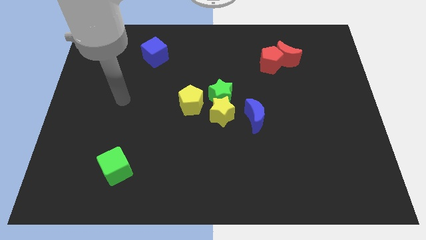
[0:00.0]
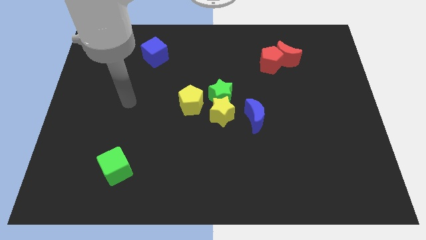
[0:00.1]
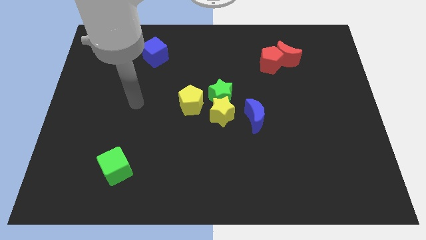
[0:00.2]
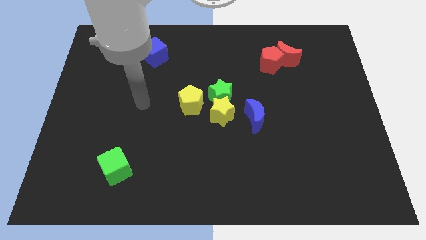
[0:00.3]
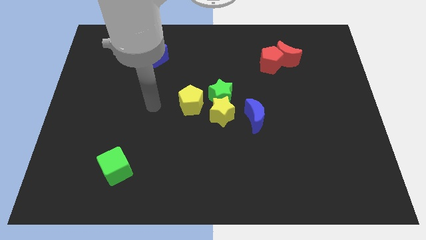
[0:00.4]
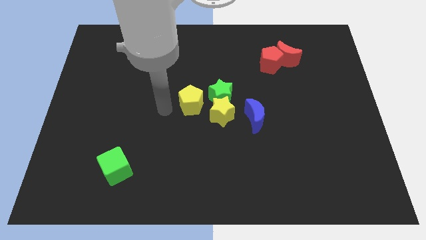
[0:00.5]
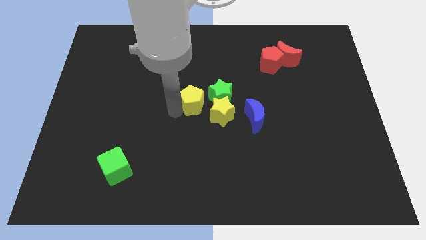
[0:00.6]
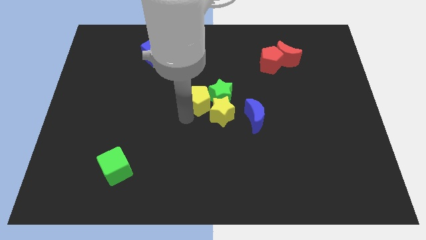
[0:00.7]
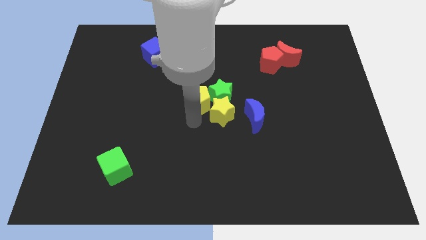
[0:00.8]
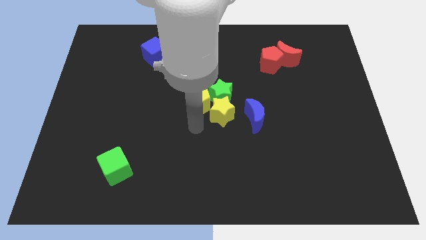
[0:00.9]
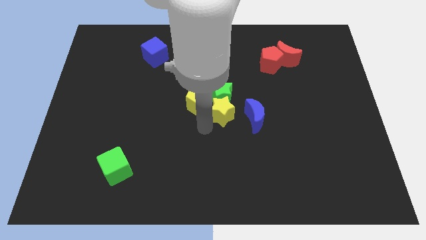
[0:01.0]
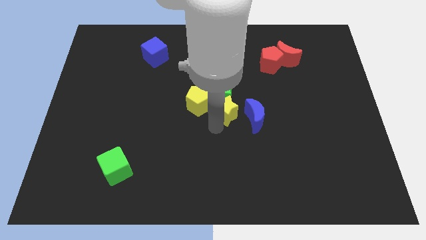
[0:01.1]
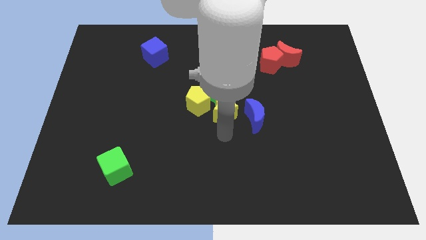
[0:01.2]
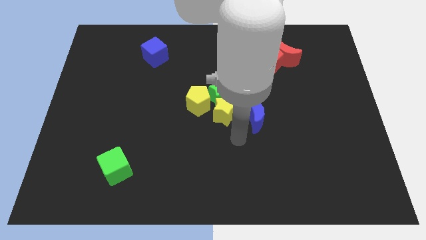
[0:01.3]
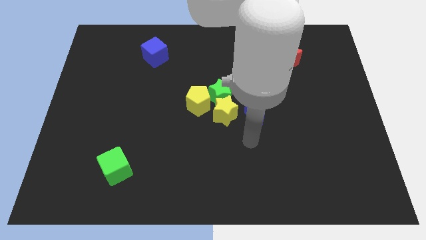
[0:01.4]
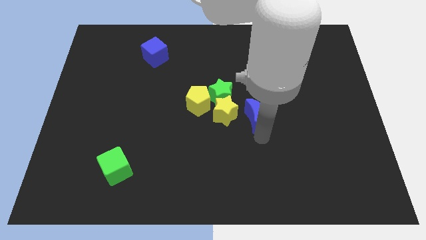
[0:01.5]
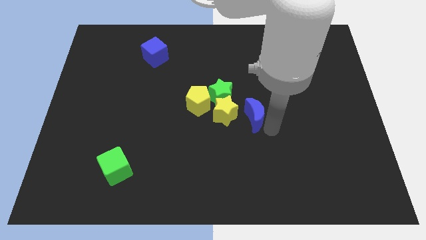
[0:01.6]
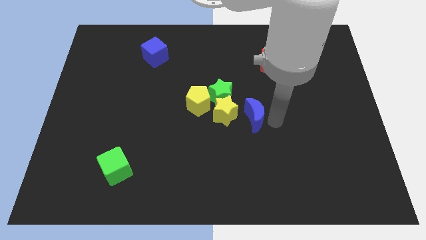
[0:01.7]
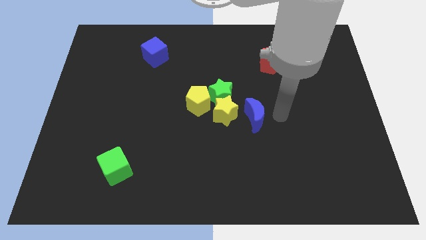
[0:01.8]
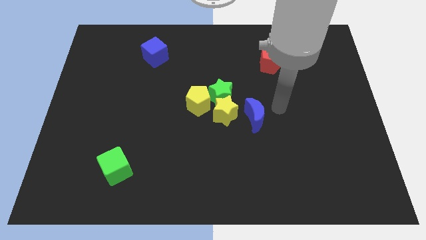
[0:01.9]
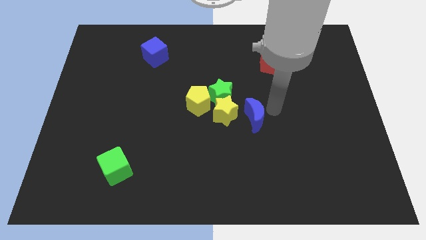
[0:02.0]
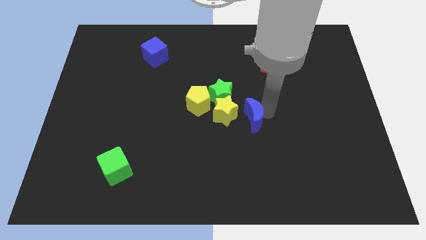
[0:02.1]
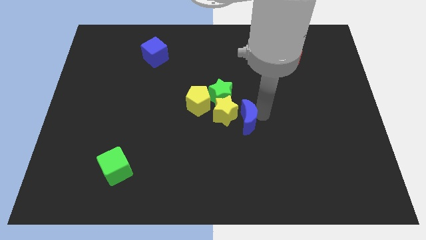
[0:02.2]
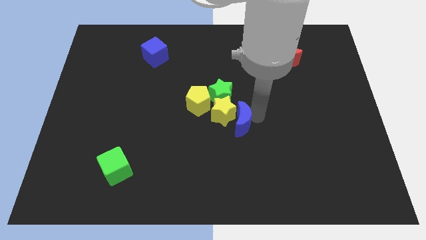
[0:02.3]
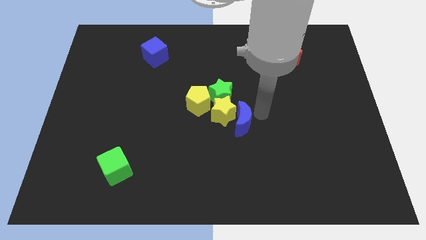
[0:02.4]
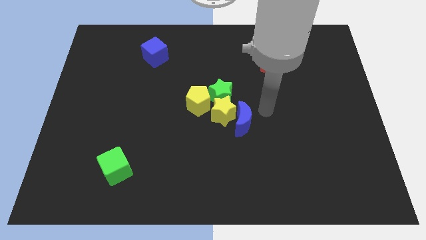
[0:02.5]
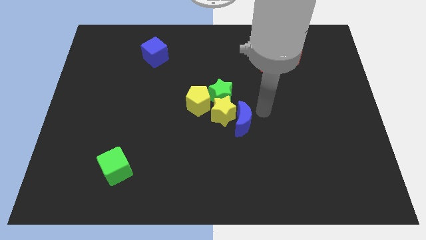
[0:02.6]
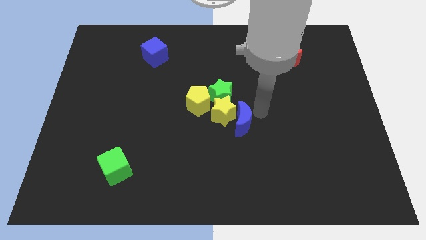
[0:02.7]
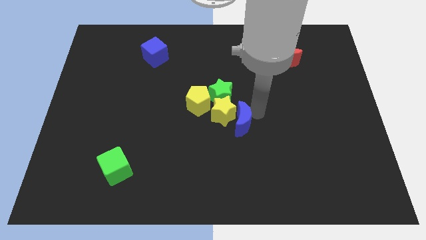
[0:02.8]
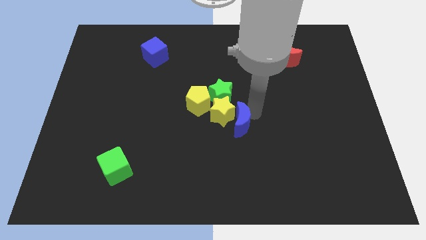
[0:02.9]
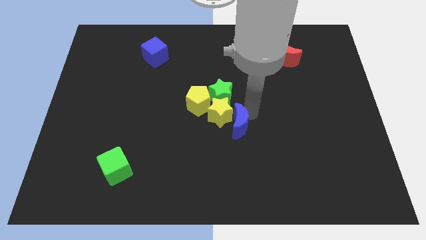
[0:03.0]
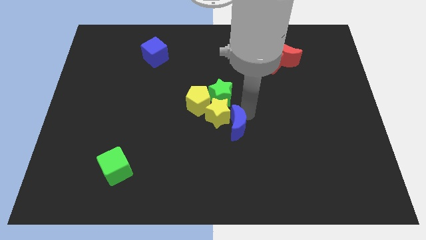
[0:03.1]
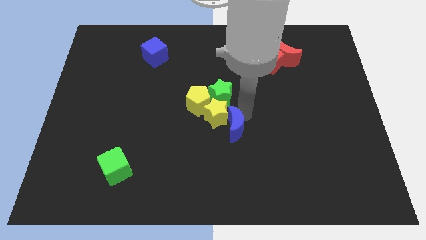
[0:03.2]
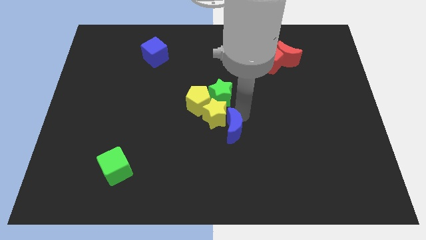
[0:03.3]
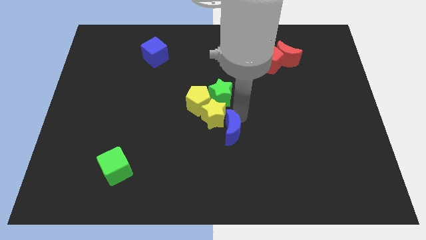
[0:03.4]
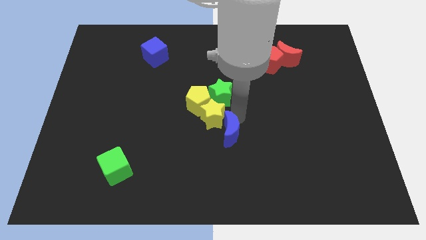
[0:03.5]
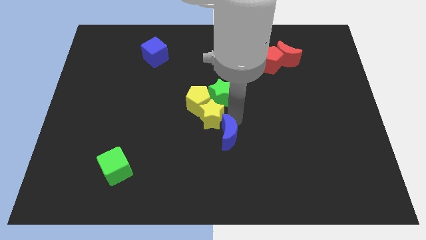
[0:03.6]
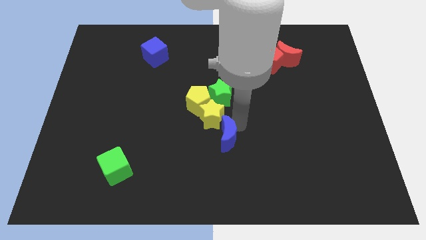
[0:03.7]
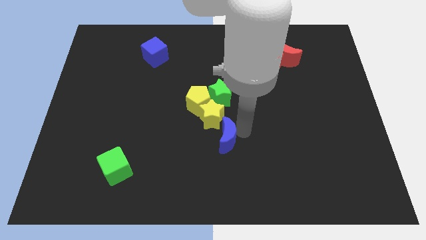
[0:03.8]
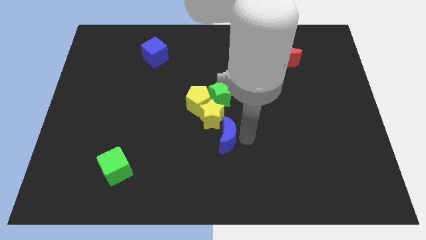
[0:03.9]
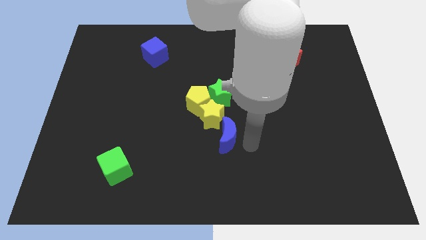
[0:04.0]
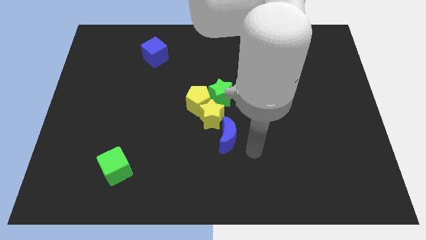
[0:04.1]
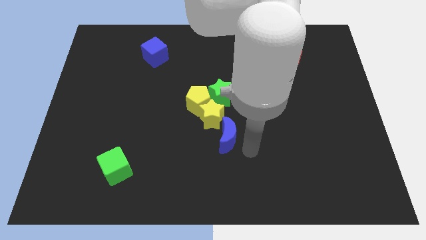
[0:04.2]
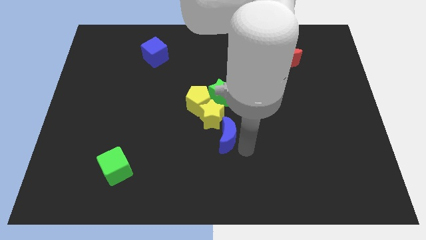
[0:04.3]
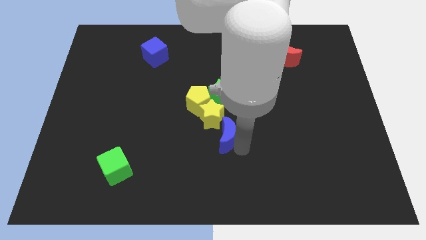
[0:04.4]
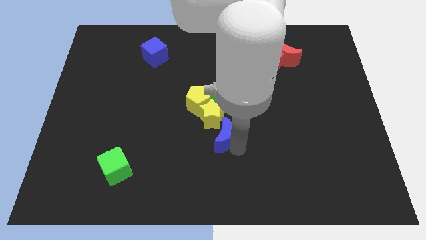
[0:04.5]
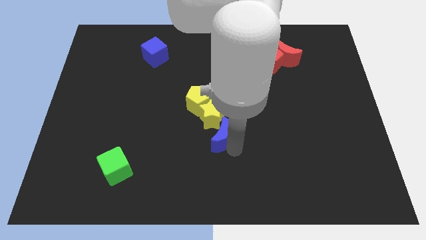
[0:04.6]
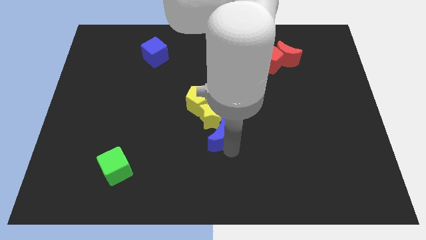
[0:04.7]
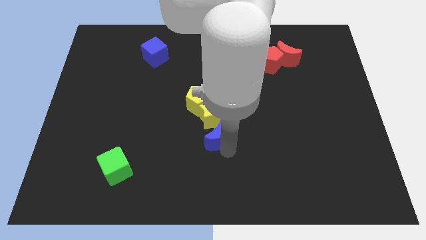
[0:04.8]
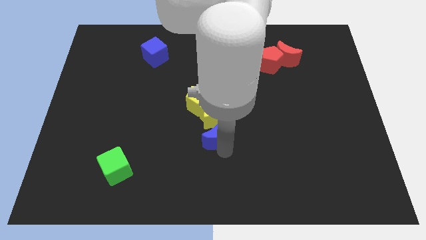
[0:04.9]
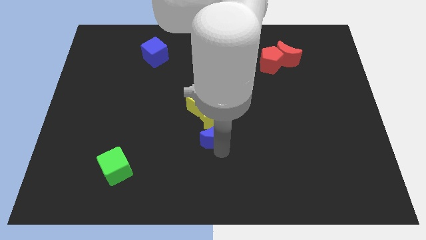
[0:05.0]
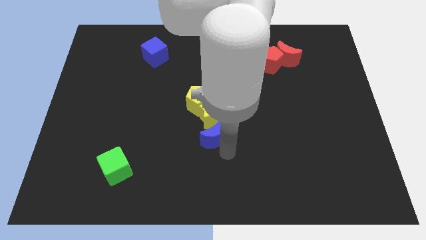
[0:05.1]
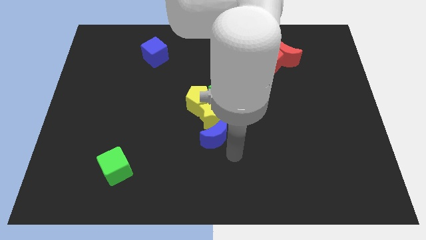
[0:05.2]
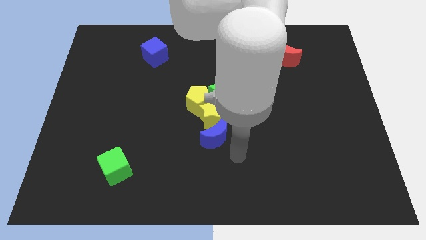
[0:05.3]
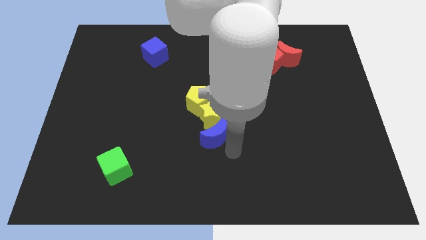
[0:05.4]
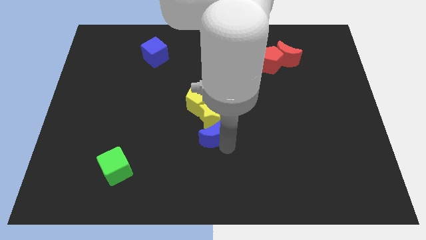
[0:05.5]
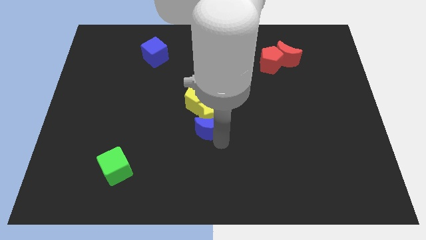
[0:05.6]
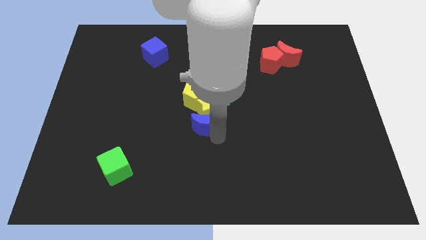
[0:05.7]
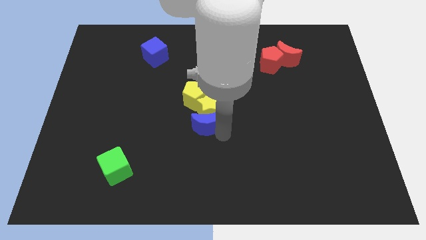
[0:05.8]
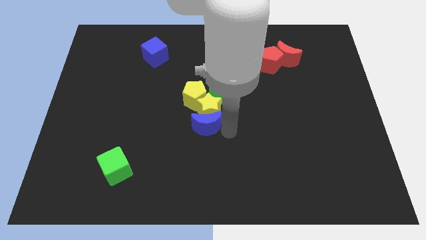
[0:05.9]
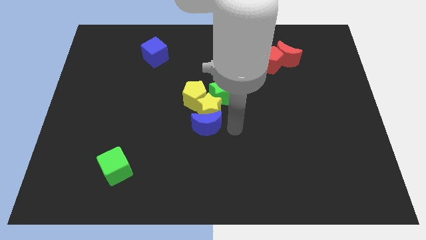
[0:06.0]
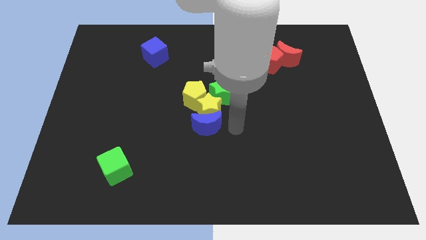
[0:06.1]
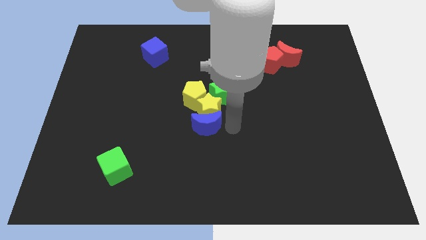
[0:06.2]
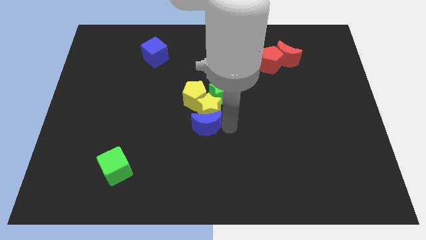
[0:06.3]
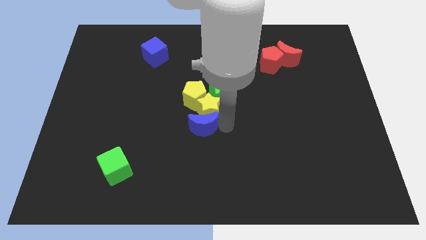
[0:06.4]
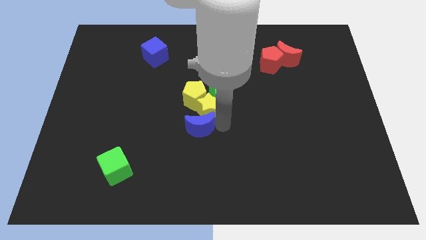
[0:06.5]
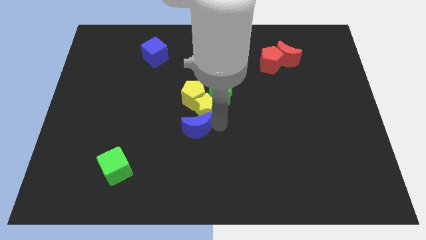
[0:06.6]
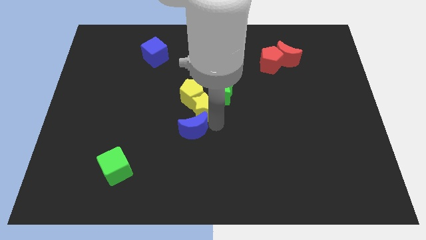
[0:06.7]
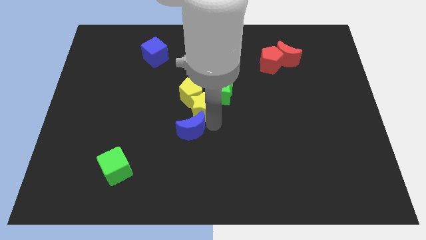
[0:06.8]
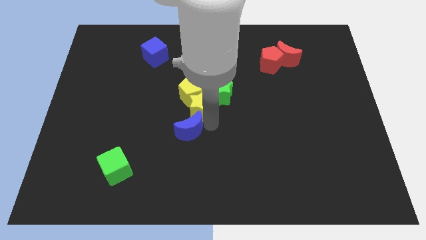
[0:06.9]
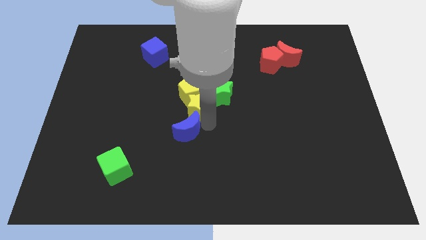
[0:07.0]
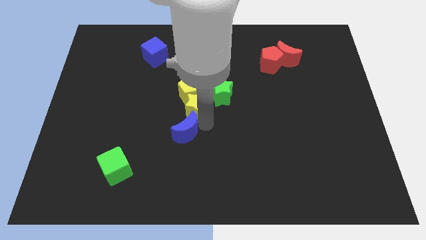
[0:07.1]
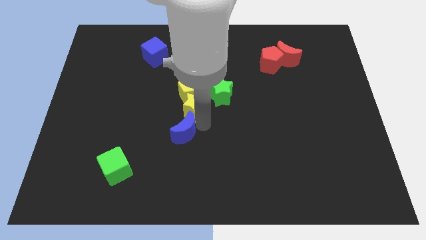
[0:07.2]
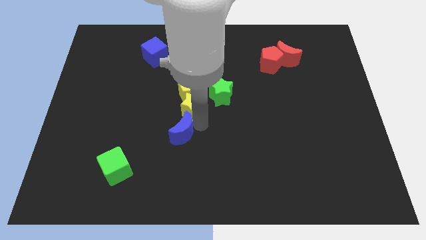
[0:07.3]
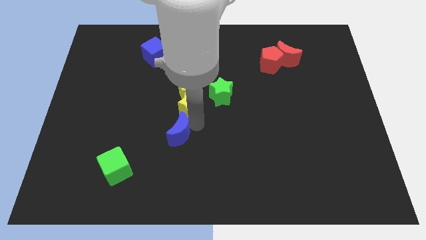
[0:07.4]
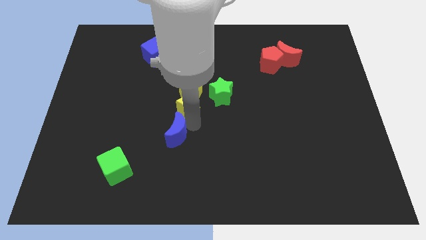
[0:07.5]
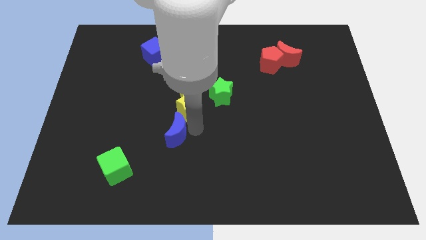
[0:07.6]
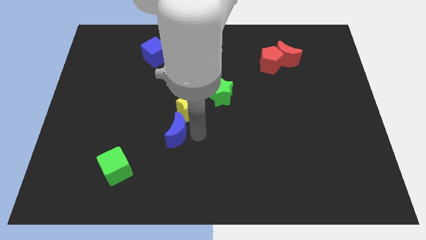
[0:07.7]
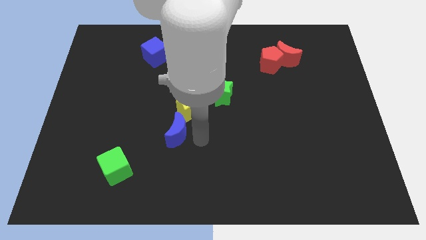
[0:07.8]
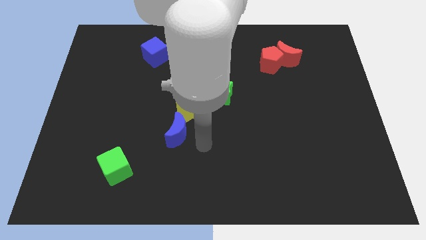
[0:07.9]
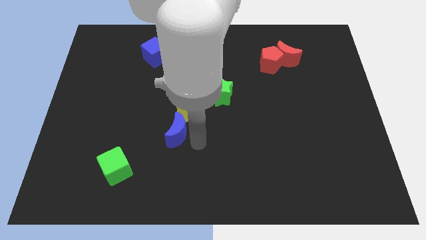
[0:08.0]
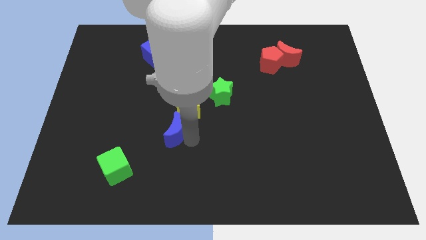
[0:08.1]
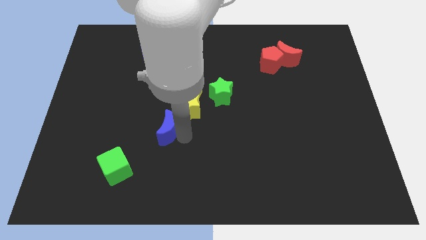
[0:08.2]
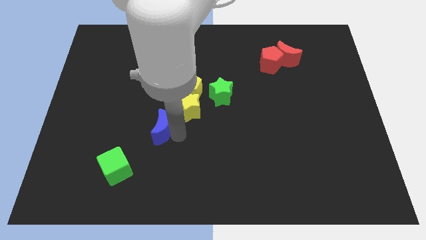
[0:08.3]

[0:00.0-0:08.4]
push the blue moon to the left
